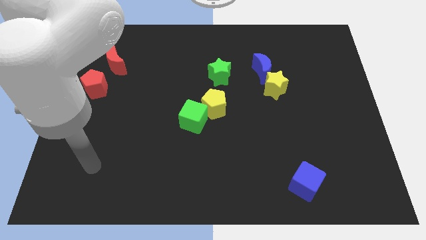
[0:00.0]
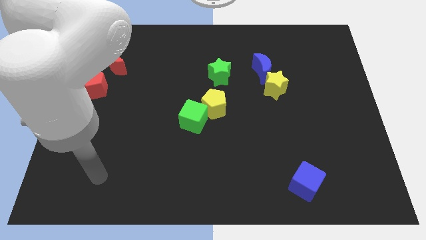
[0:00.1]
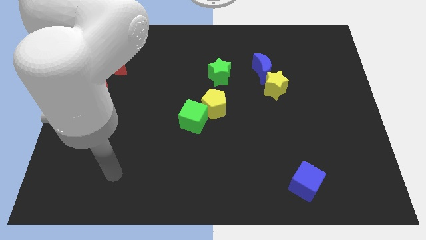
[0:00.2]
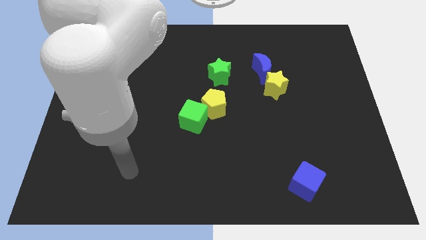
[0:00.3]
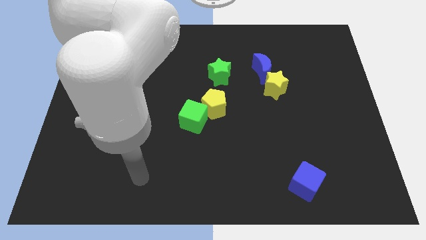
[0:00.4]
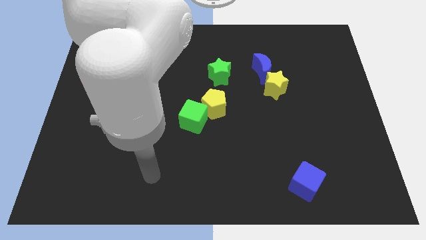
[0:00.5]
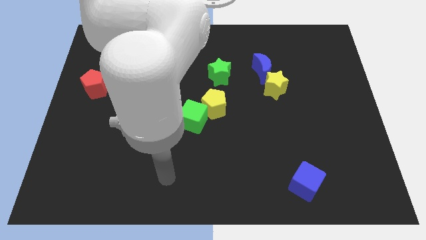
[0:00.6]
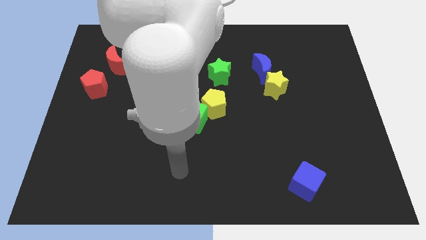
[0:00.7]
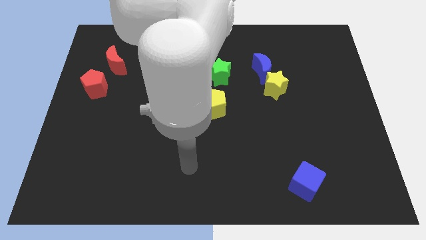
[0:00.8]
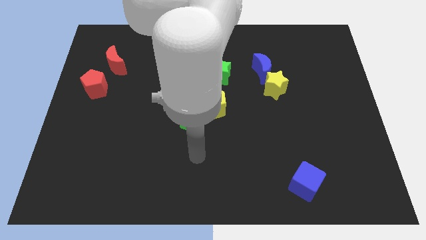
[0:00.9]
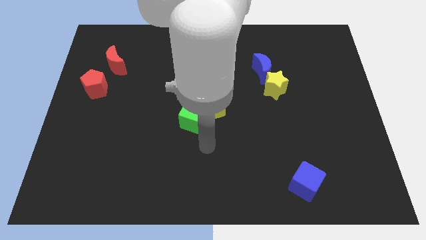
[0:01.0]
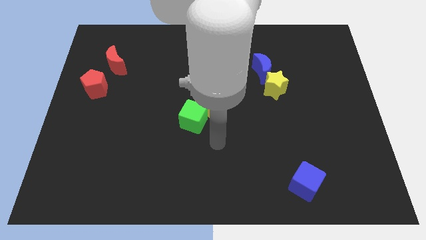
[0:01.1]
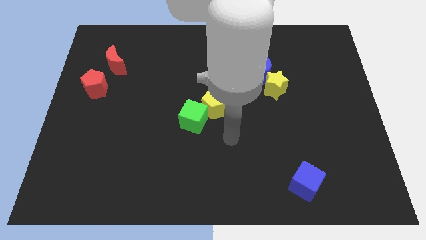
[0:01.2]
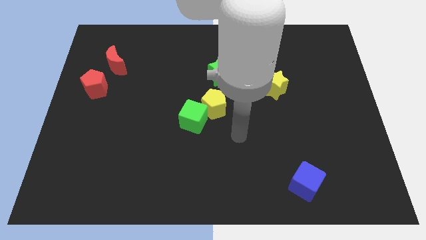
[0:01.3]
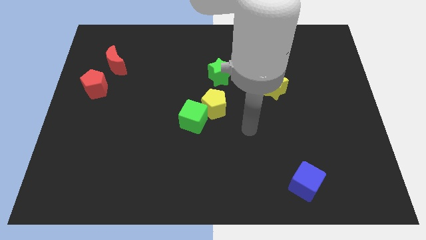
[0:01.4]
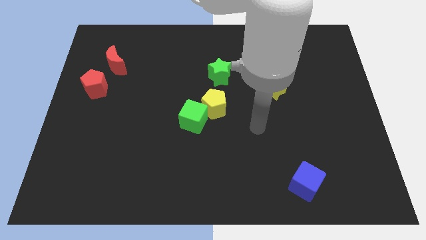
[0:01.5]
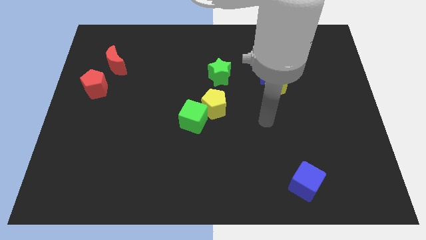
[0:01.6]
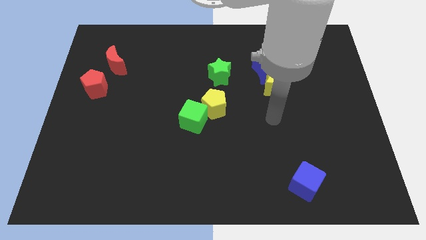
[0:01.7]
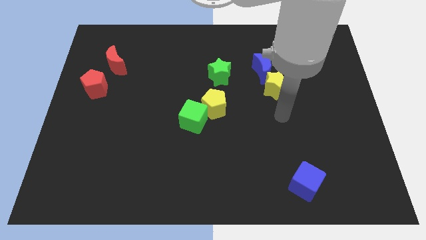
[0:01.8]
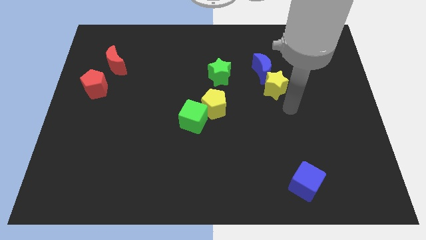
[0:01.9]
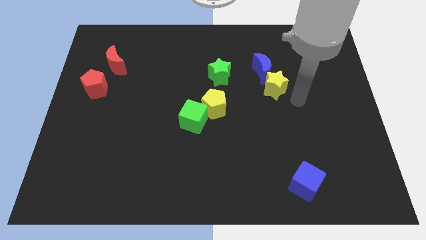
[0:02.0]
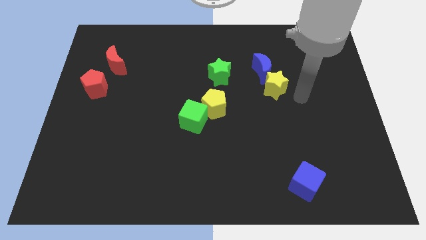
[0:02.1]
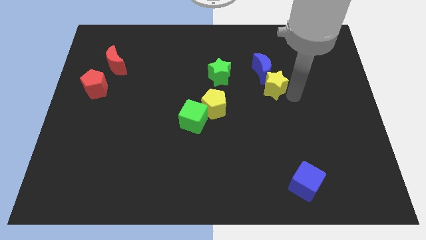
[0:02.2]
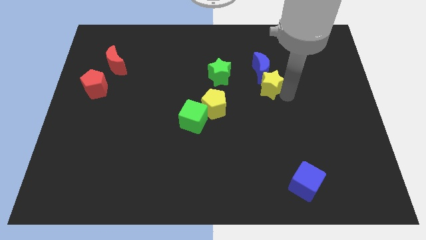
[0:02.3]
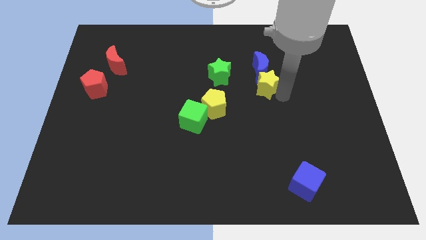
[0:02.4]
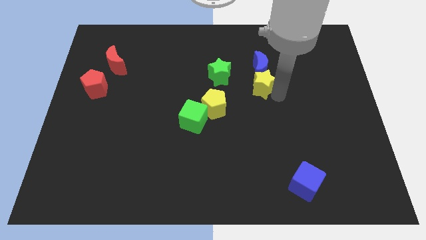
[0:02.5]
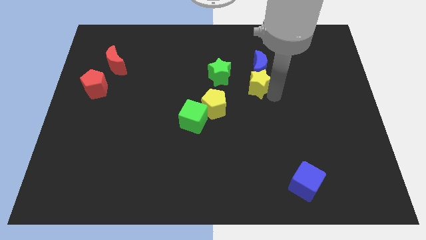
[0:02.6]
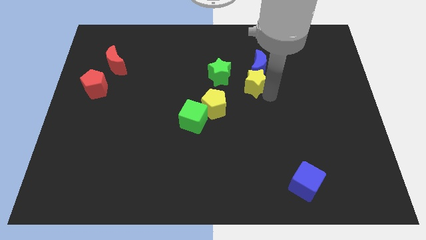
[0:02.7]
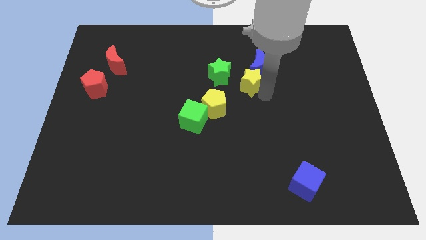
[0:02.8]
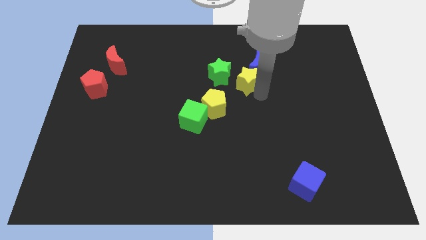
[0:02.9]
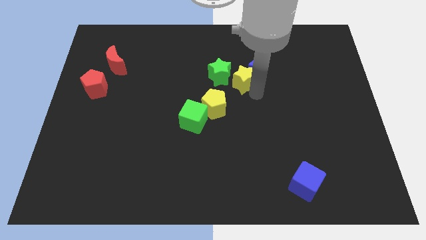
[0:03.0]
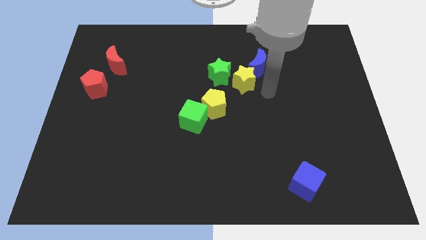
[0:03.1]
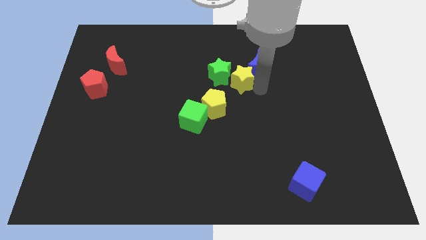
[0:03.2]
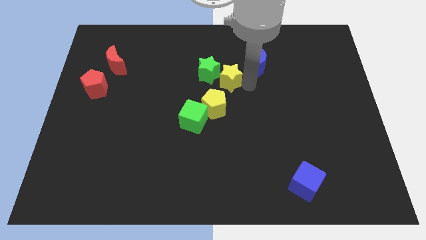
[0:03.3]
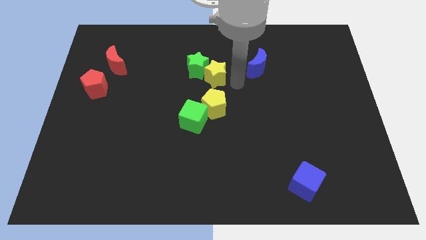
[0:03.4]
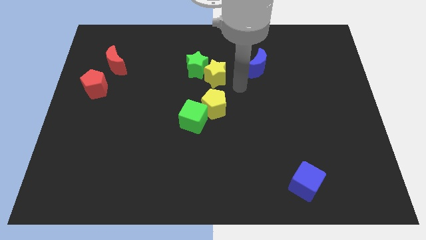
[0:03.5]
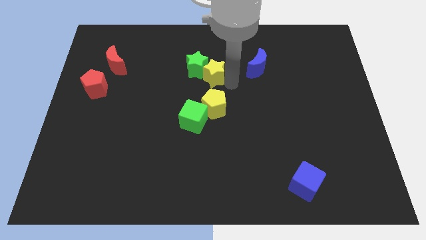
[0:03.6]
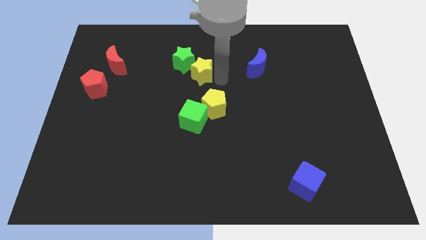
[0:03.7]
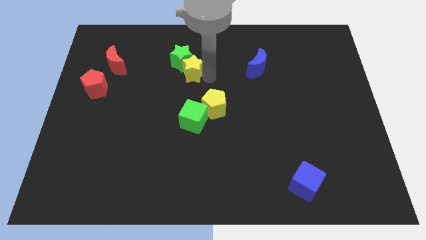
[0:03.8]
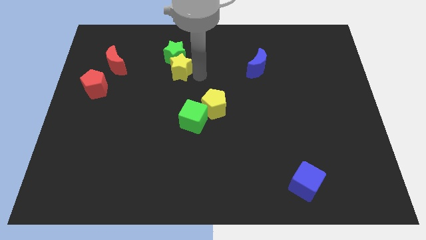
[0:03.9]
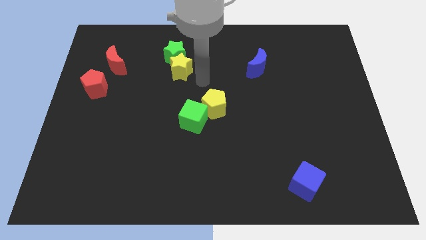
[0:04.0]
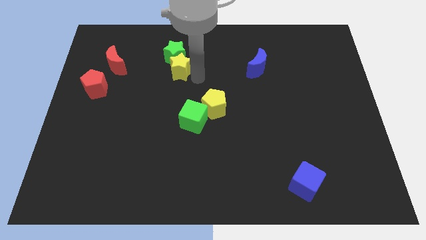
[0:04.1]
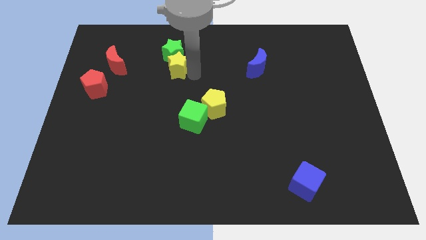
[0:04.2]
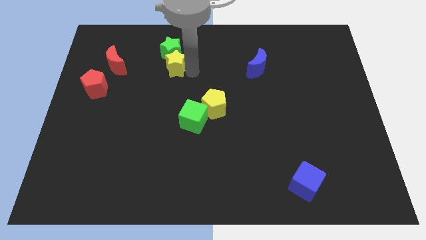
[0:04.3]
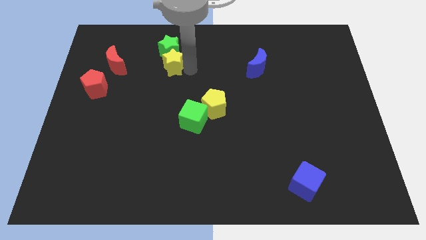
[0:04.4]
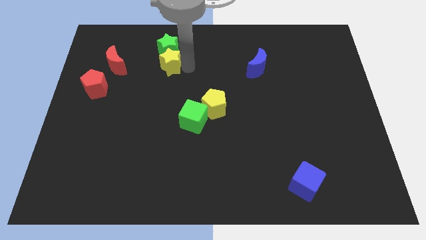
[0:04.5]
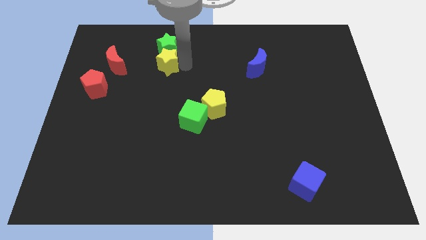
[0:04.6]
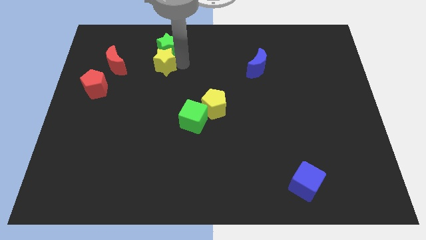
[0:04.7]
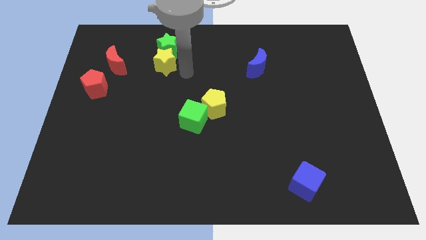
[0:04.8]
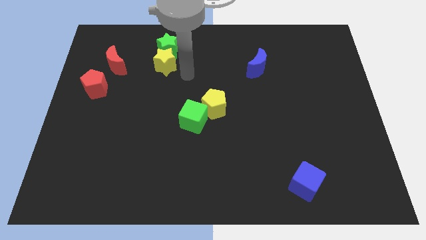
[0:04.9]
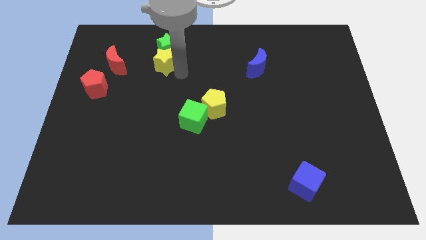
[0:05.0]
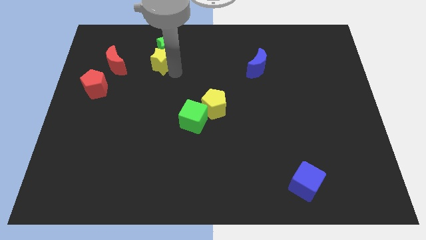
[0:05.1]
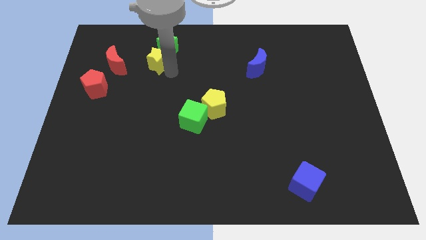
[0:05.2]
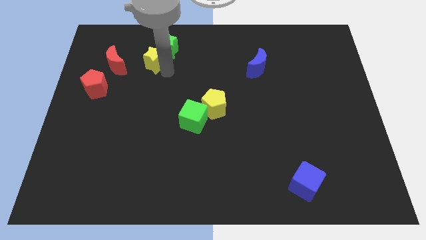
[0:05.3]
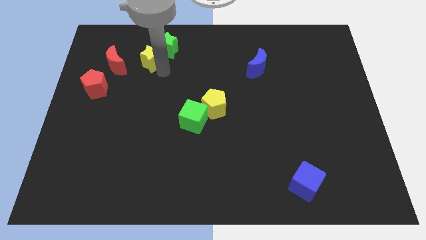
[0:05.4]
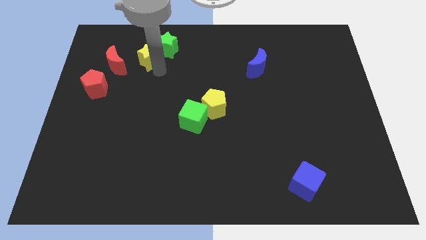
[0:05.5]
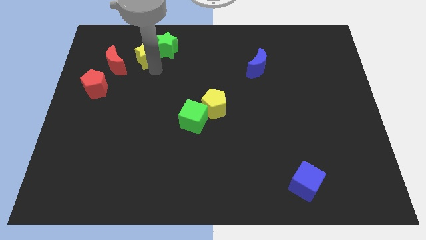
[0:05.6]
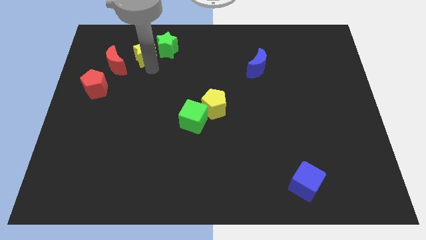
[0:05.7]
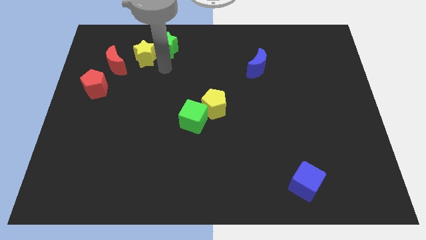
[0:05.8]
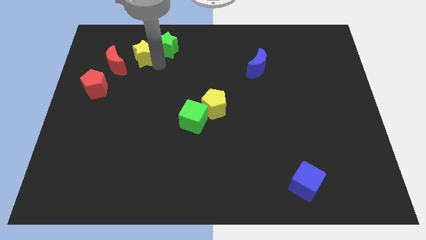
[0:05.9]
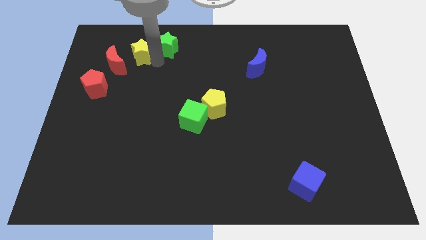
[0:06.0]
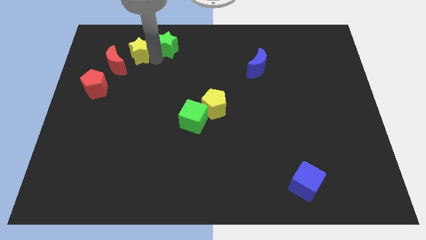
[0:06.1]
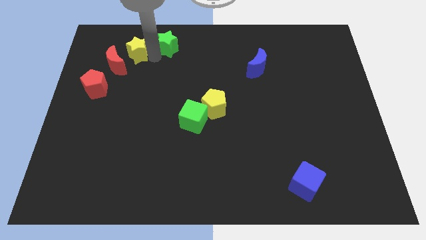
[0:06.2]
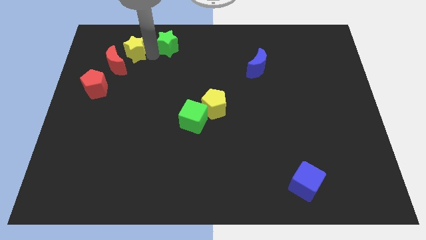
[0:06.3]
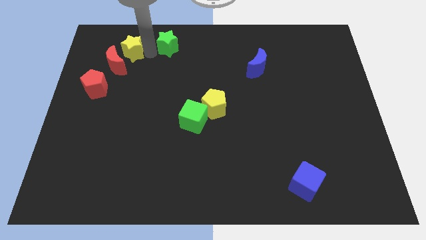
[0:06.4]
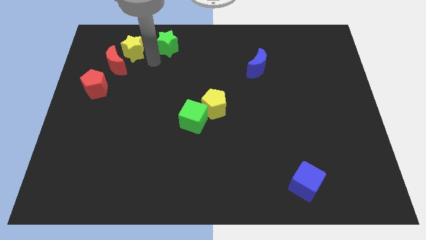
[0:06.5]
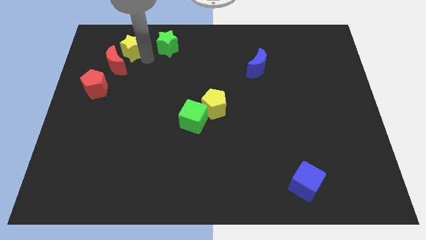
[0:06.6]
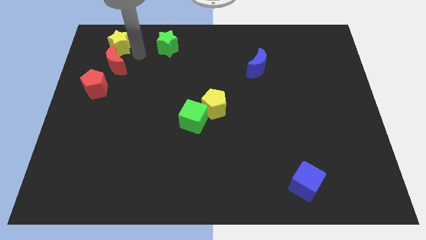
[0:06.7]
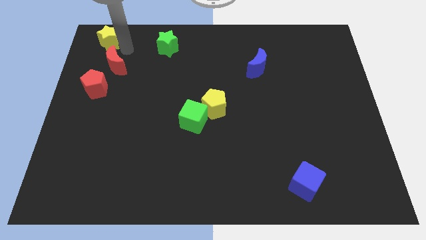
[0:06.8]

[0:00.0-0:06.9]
put the yellow star to the top left
